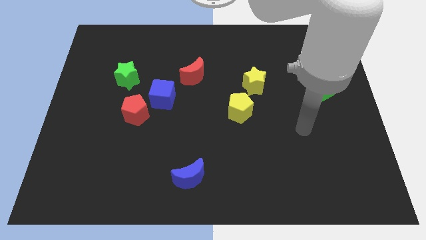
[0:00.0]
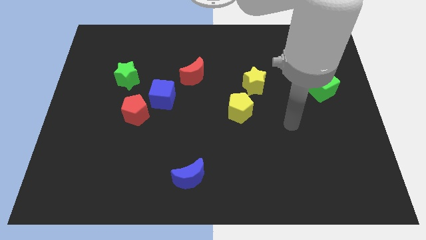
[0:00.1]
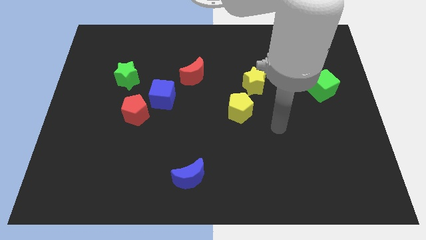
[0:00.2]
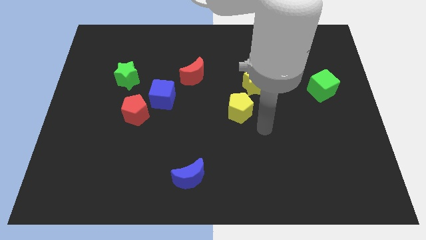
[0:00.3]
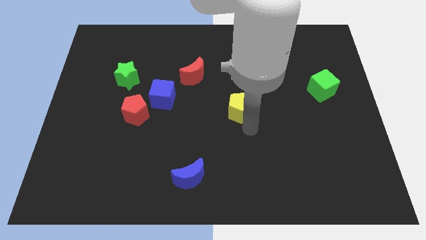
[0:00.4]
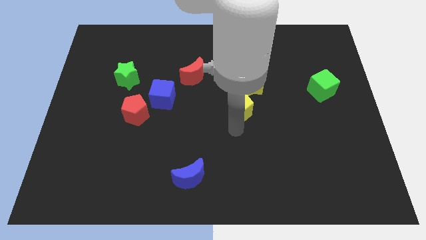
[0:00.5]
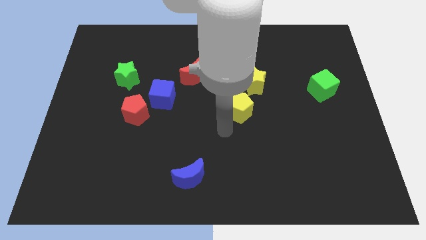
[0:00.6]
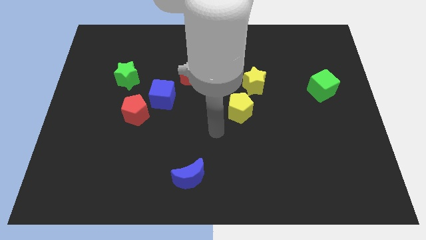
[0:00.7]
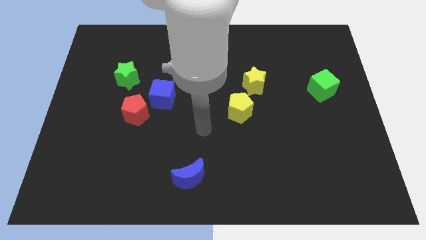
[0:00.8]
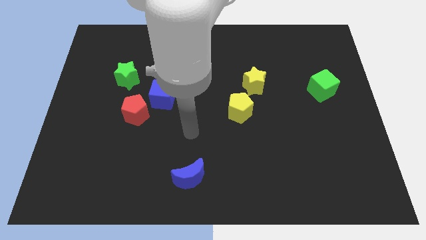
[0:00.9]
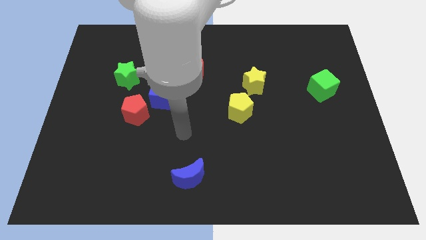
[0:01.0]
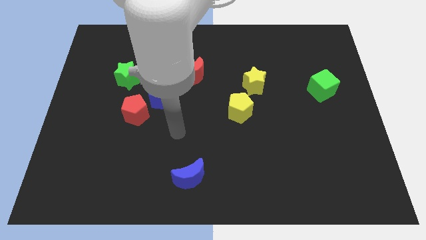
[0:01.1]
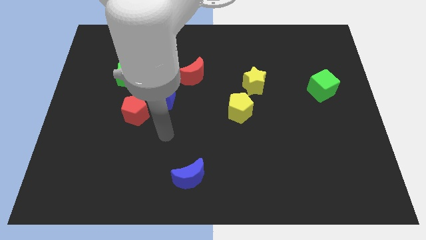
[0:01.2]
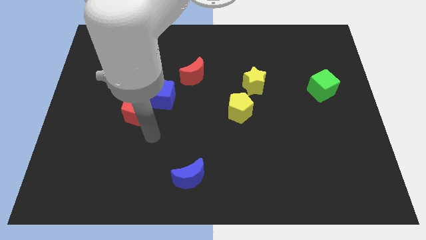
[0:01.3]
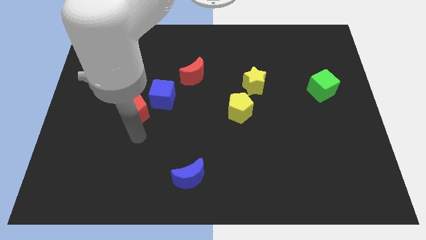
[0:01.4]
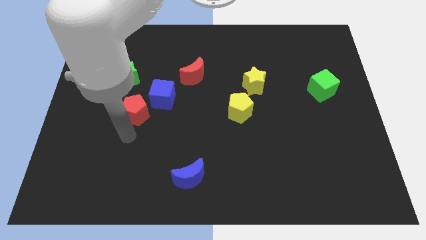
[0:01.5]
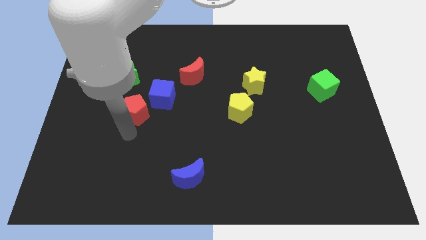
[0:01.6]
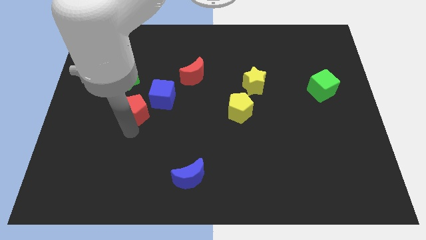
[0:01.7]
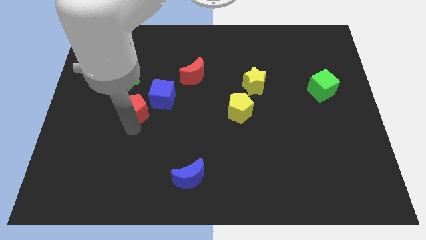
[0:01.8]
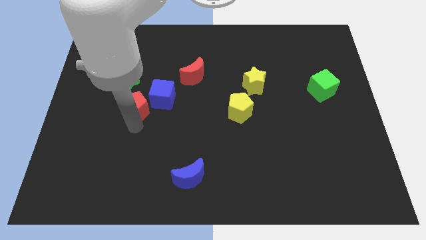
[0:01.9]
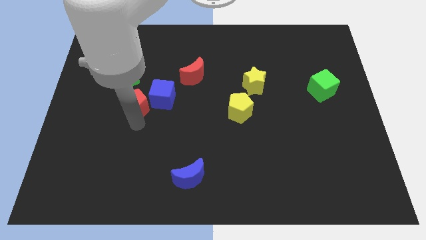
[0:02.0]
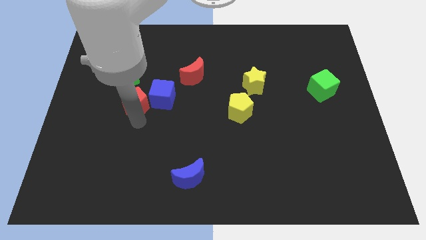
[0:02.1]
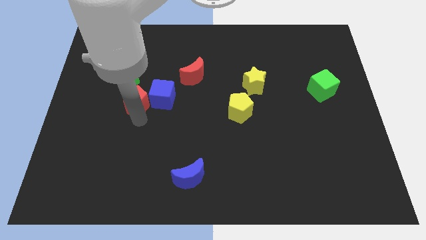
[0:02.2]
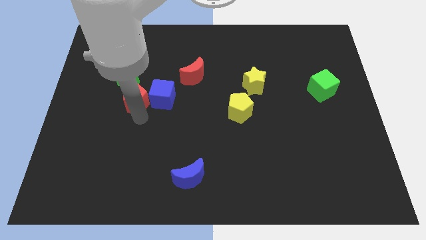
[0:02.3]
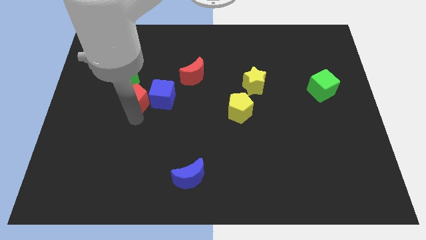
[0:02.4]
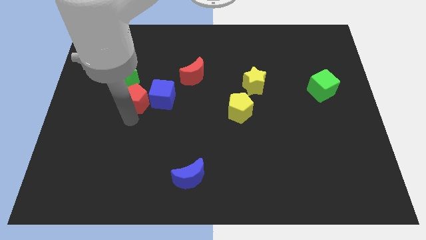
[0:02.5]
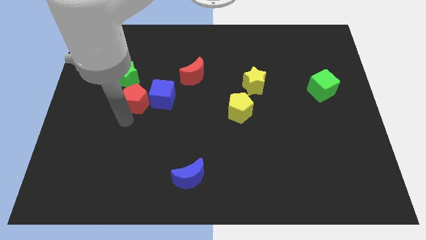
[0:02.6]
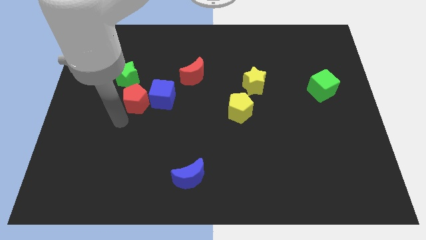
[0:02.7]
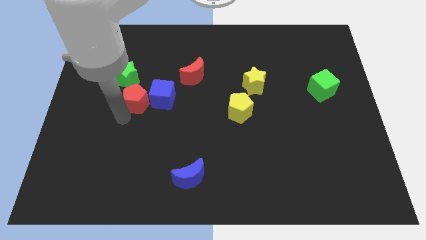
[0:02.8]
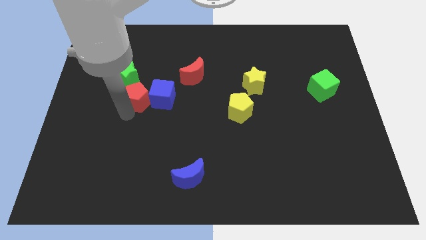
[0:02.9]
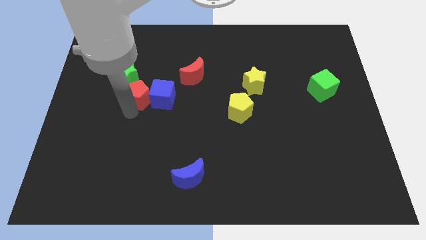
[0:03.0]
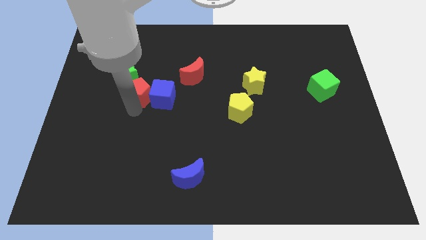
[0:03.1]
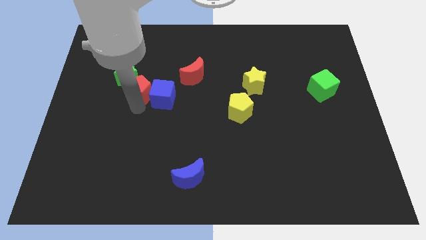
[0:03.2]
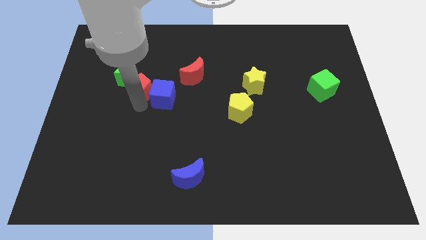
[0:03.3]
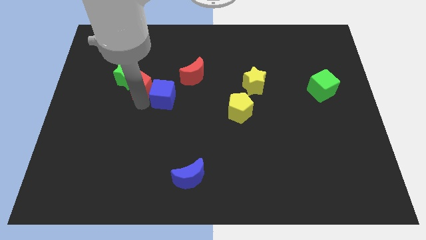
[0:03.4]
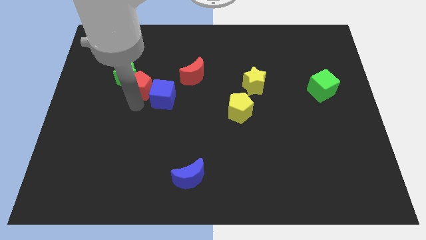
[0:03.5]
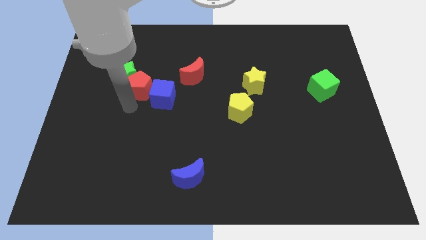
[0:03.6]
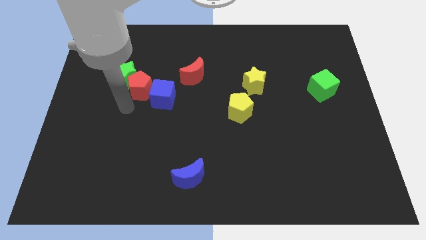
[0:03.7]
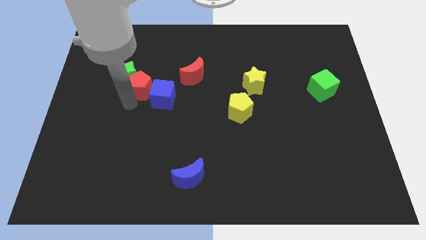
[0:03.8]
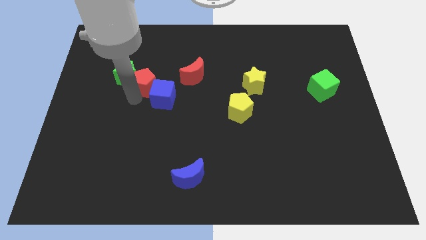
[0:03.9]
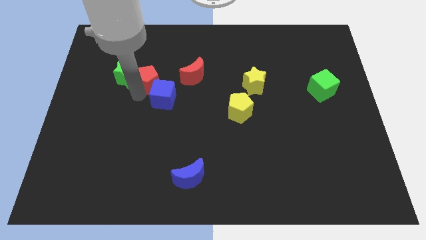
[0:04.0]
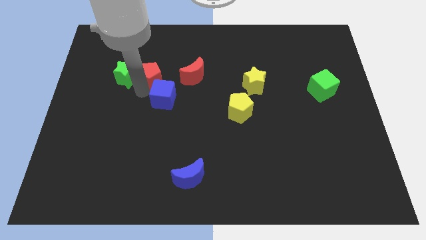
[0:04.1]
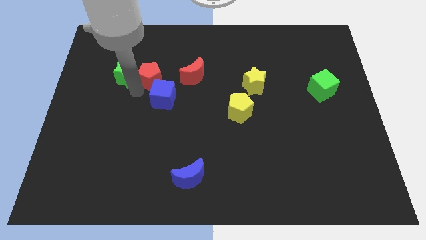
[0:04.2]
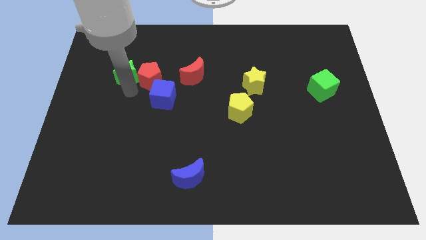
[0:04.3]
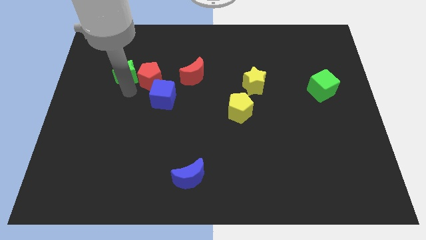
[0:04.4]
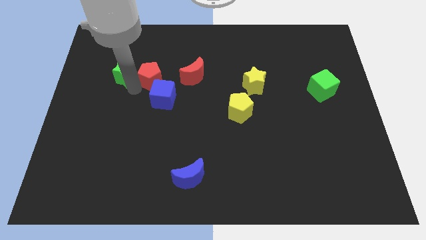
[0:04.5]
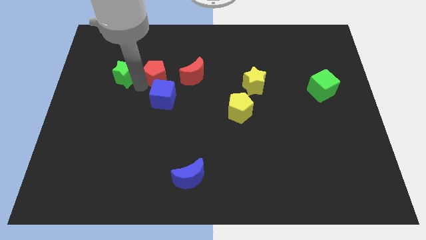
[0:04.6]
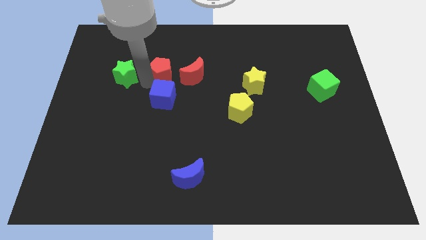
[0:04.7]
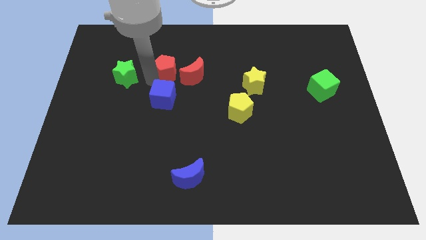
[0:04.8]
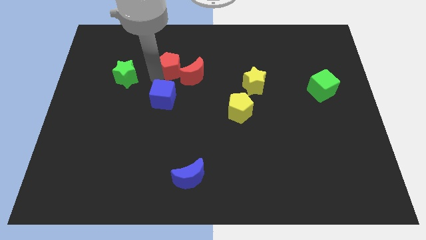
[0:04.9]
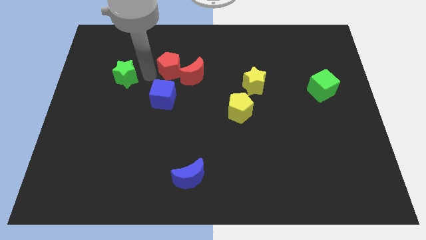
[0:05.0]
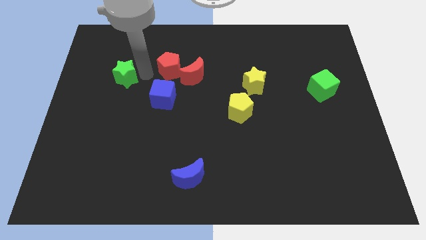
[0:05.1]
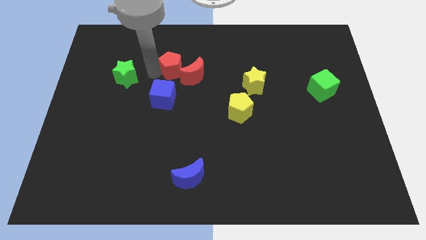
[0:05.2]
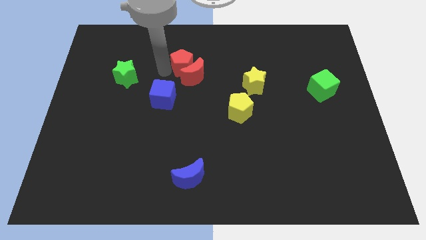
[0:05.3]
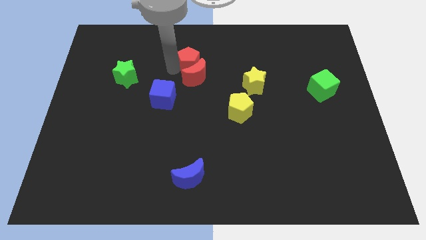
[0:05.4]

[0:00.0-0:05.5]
slide the red pentagon diagonally up and to the right of the red moon

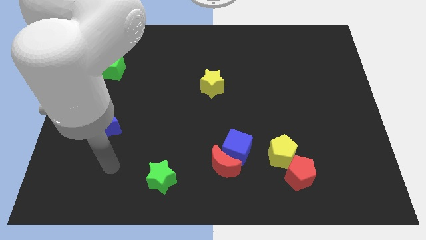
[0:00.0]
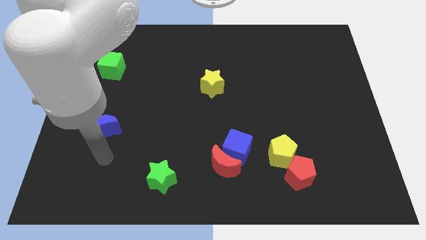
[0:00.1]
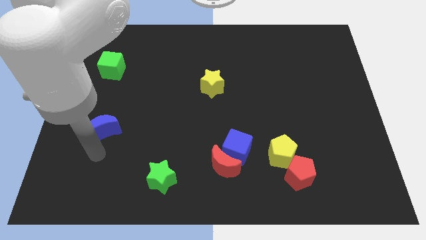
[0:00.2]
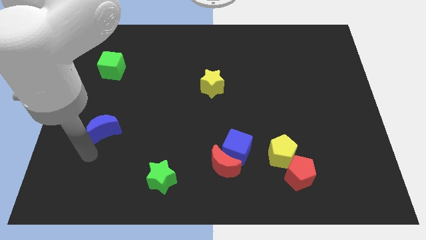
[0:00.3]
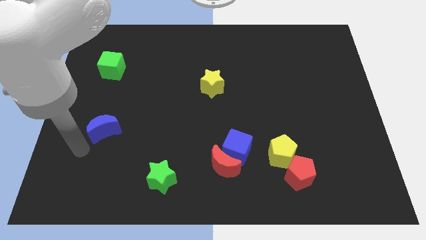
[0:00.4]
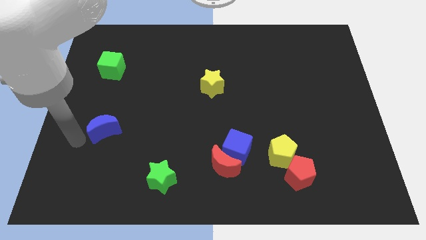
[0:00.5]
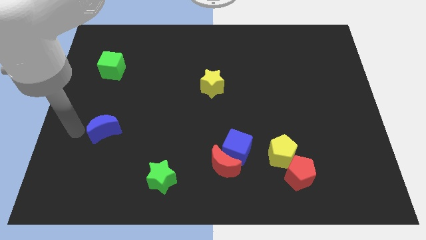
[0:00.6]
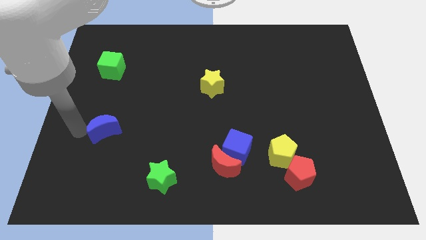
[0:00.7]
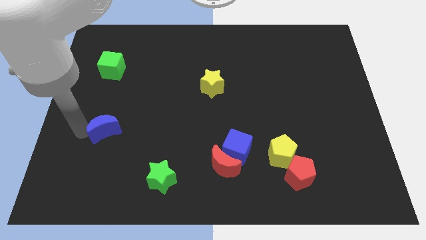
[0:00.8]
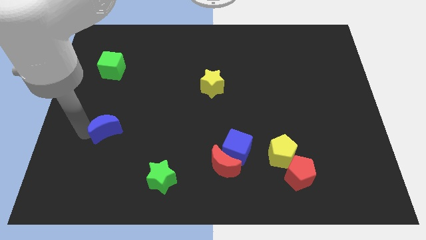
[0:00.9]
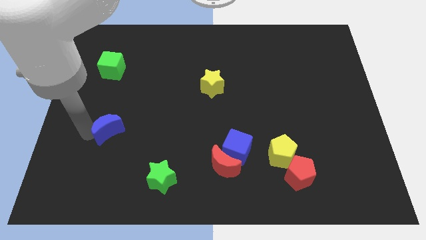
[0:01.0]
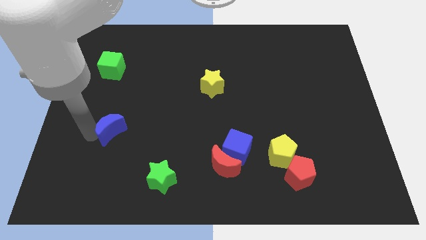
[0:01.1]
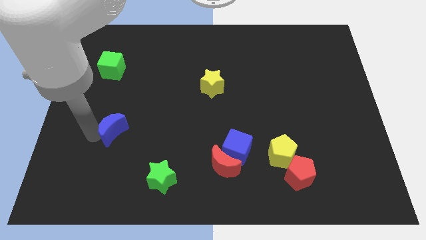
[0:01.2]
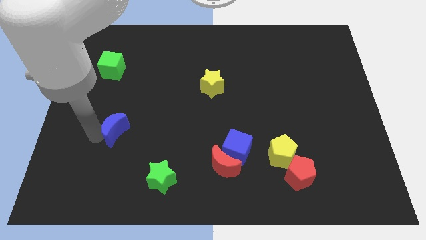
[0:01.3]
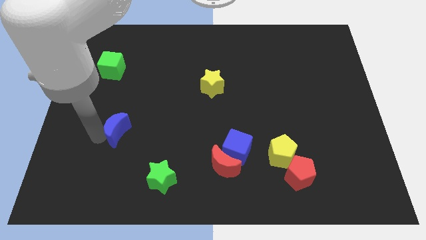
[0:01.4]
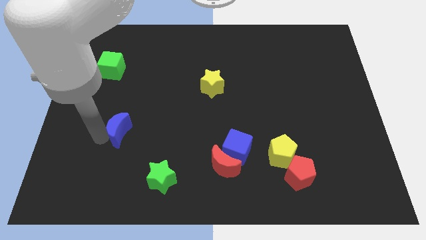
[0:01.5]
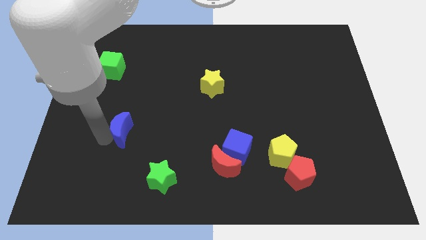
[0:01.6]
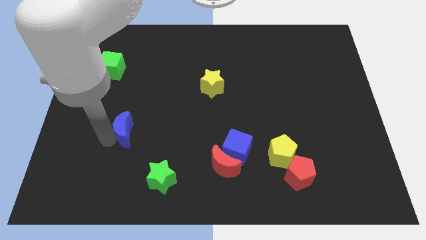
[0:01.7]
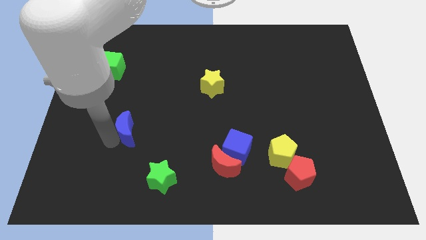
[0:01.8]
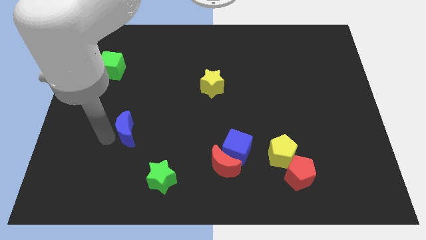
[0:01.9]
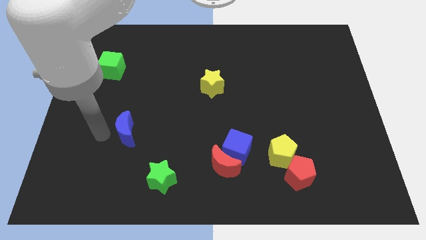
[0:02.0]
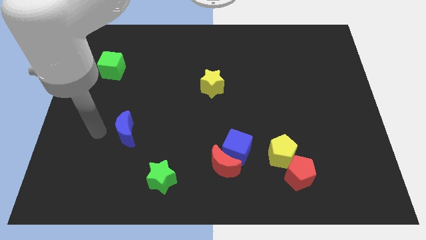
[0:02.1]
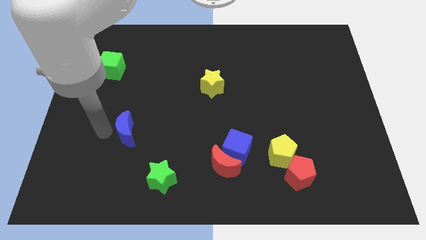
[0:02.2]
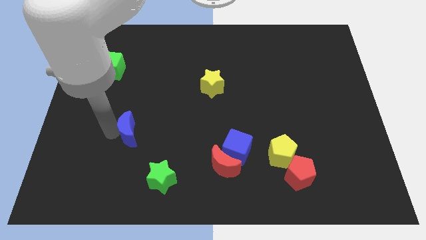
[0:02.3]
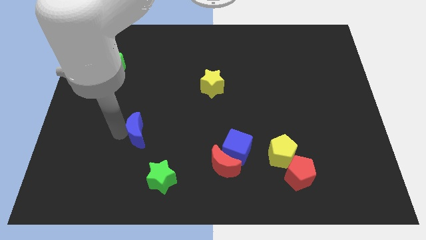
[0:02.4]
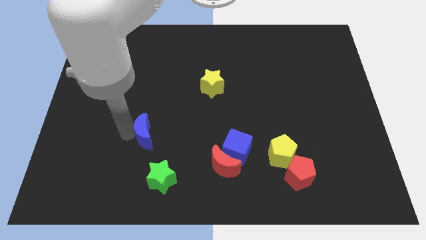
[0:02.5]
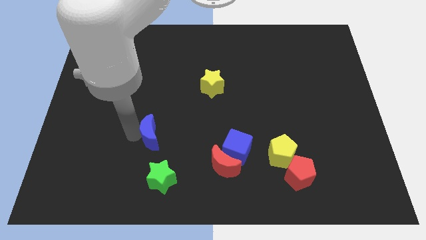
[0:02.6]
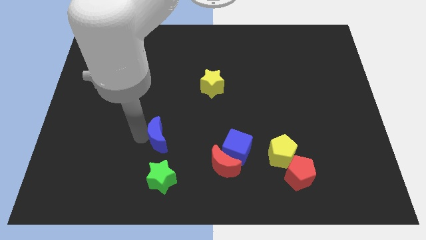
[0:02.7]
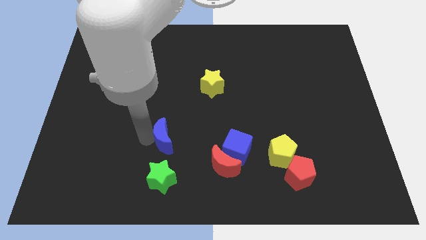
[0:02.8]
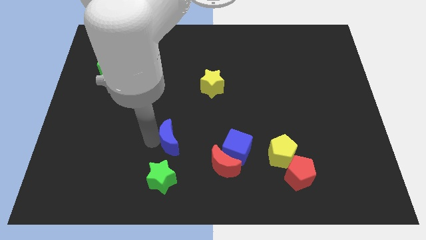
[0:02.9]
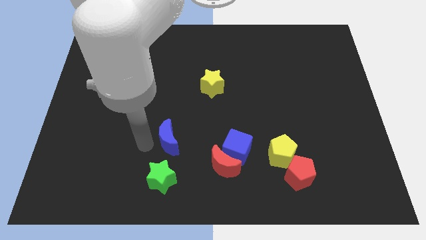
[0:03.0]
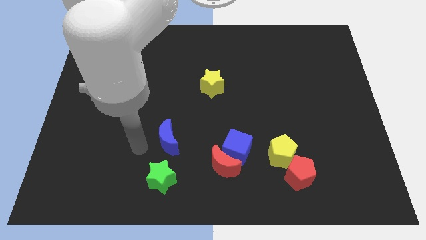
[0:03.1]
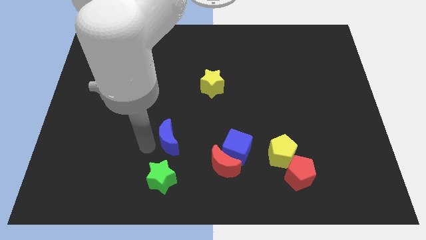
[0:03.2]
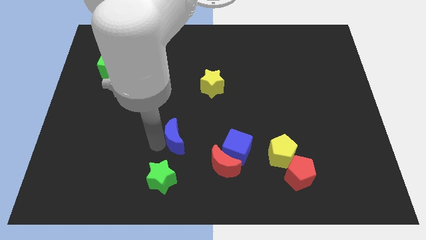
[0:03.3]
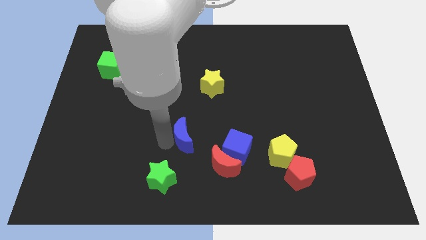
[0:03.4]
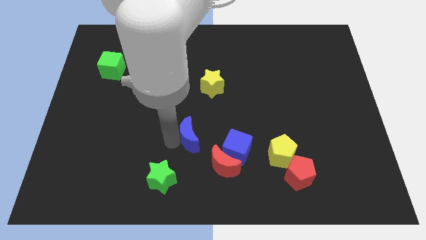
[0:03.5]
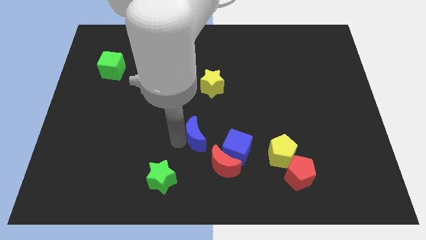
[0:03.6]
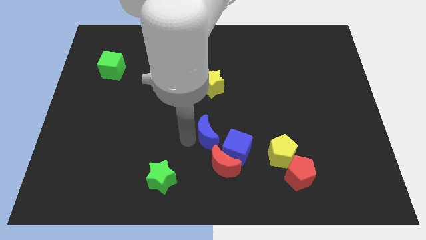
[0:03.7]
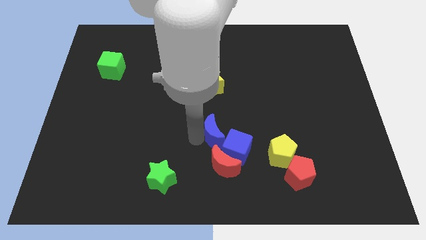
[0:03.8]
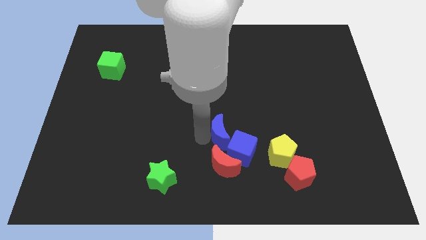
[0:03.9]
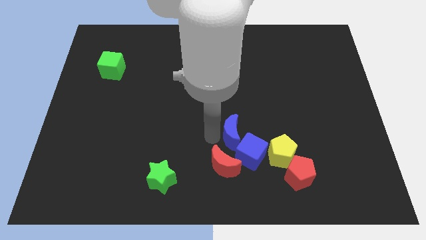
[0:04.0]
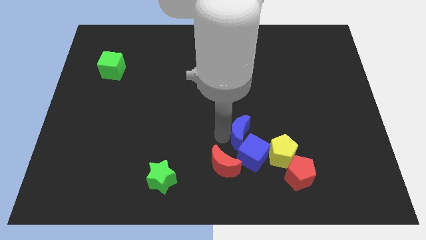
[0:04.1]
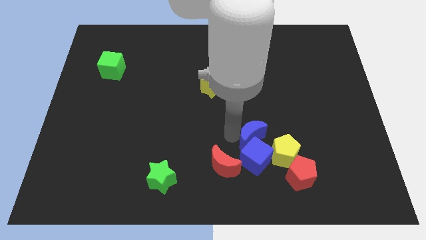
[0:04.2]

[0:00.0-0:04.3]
slide the blue moon diagonally up and to the right of the blue cube
